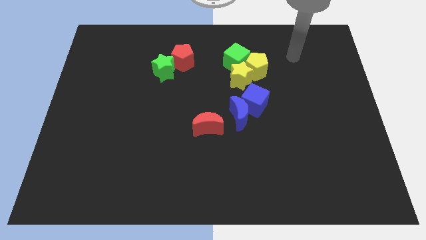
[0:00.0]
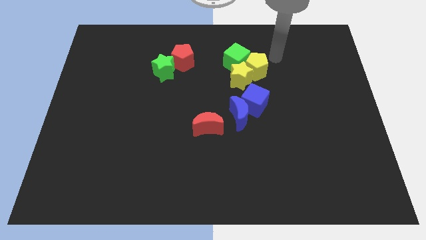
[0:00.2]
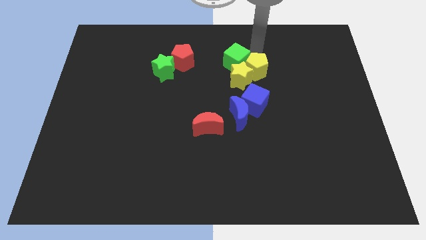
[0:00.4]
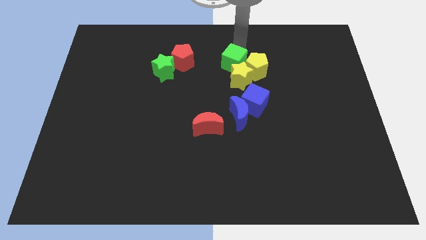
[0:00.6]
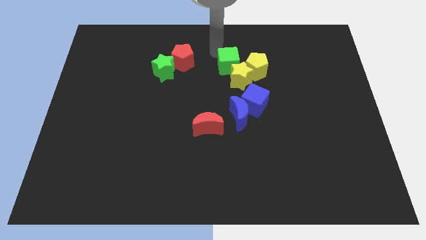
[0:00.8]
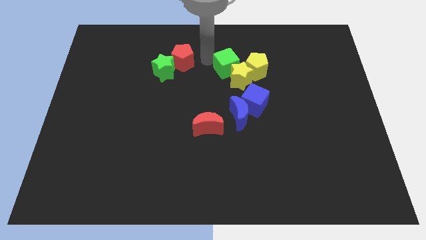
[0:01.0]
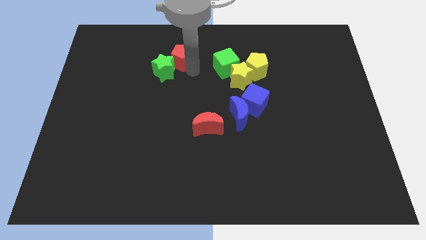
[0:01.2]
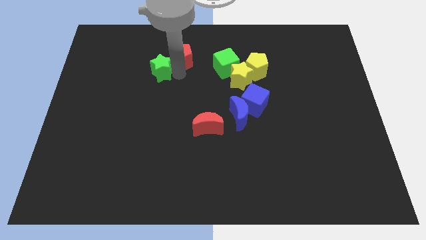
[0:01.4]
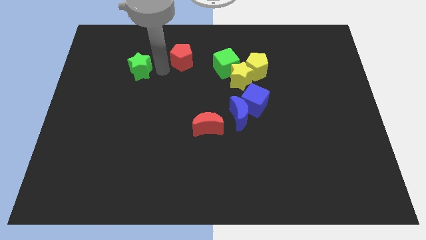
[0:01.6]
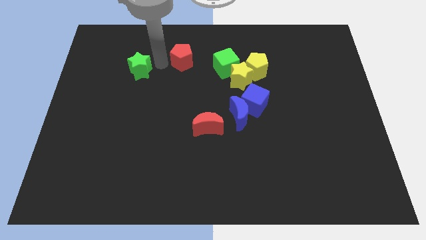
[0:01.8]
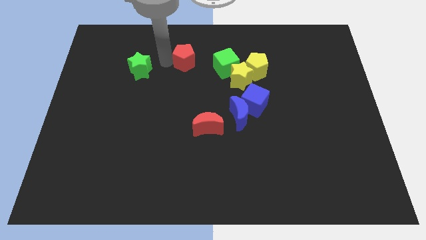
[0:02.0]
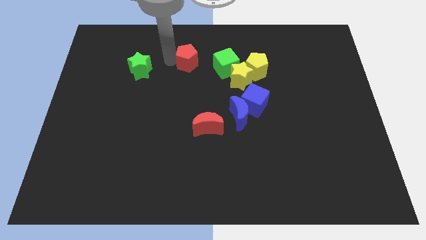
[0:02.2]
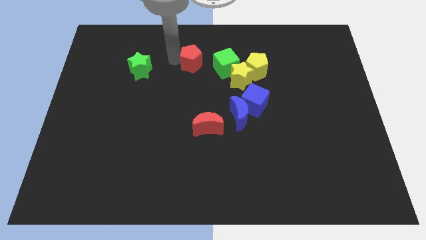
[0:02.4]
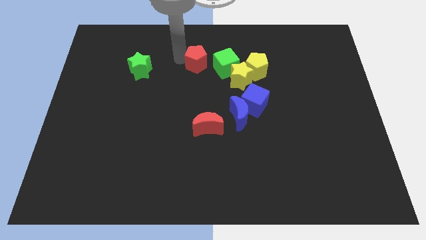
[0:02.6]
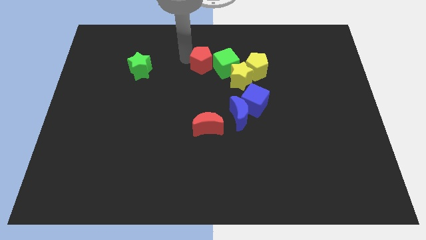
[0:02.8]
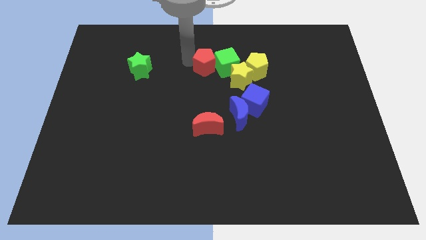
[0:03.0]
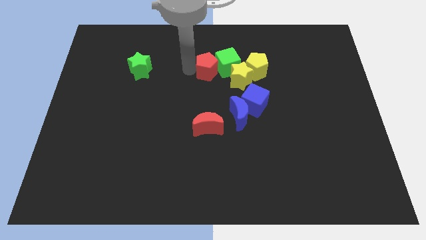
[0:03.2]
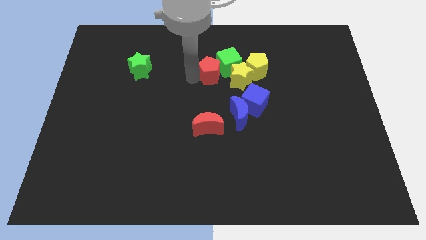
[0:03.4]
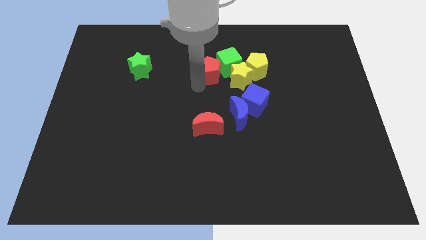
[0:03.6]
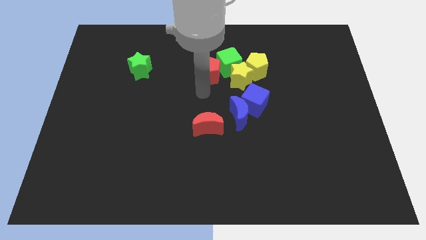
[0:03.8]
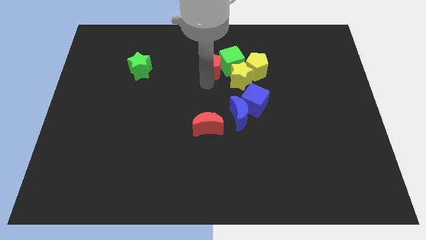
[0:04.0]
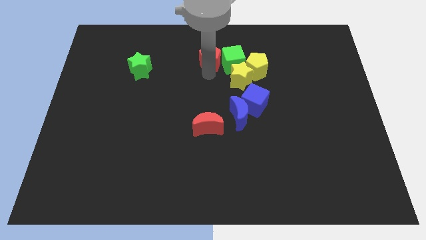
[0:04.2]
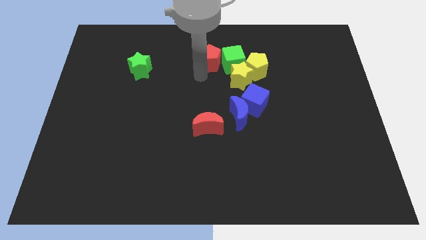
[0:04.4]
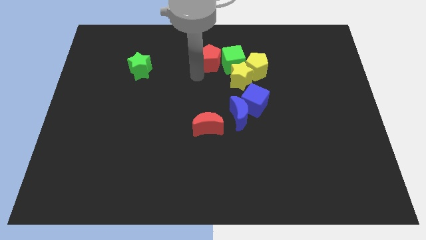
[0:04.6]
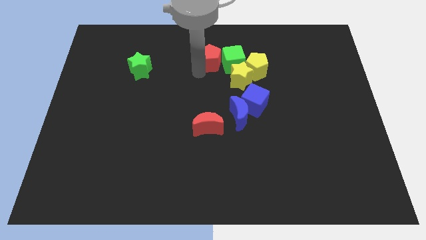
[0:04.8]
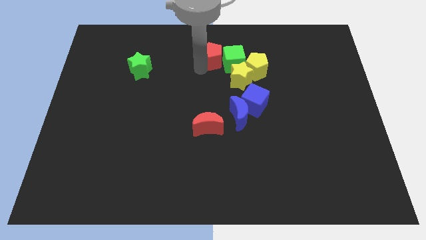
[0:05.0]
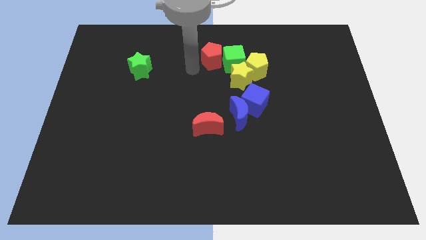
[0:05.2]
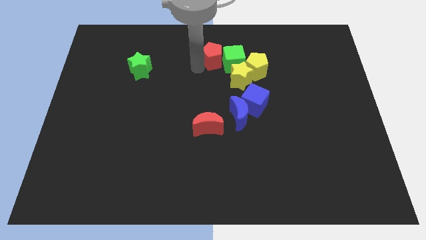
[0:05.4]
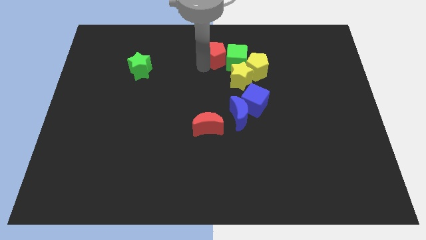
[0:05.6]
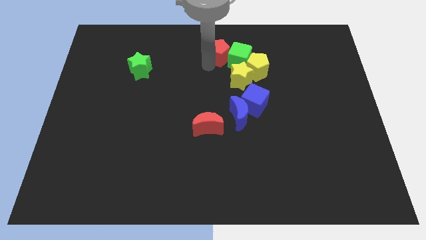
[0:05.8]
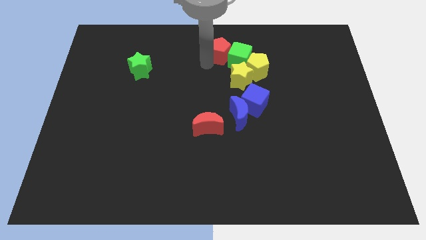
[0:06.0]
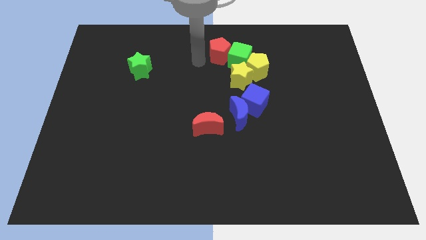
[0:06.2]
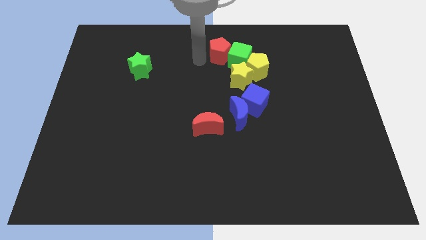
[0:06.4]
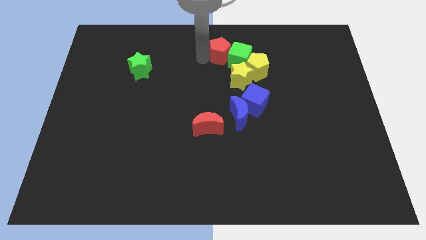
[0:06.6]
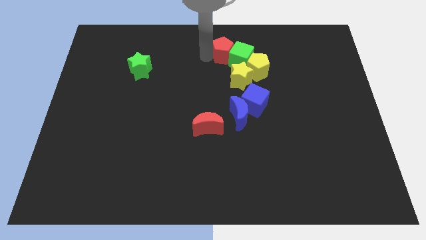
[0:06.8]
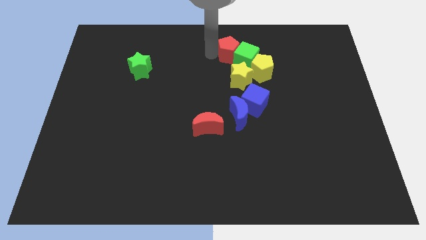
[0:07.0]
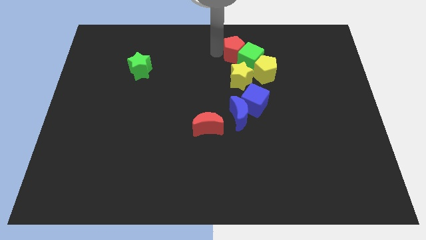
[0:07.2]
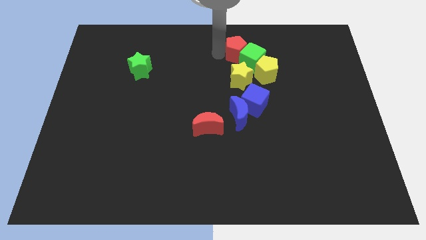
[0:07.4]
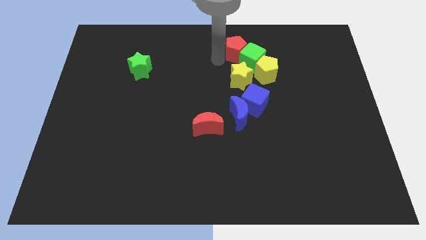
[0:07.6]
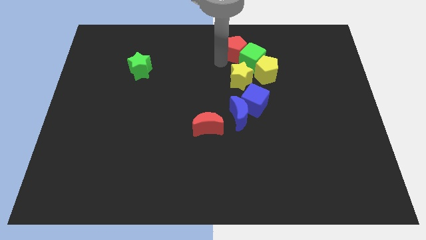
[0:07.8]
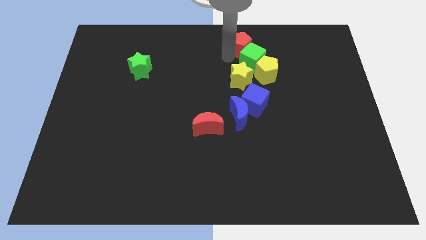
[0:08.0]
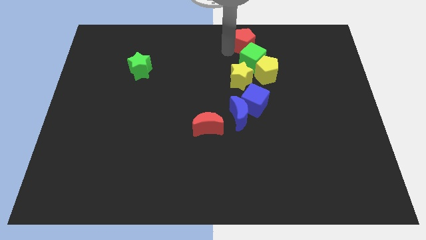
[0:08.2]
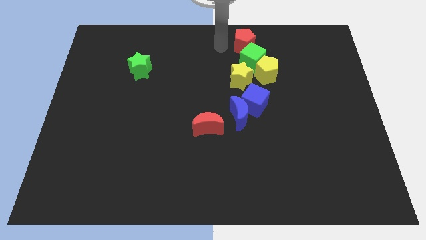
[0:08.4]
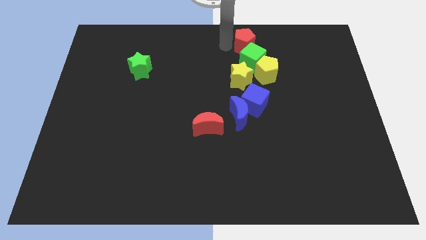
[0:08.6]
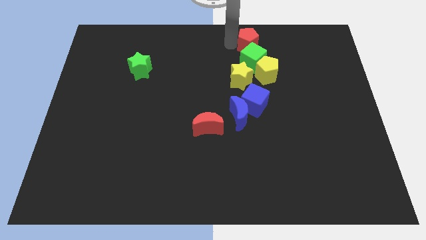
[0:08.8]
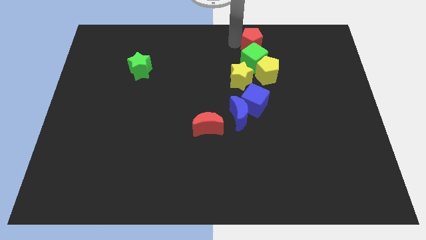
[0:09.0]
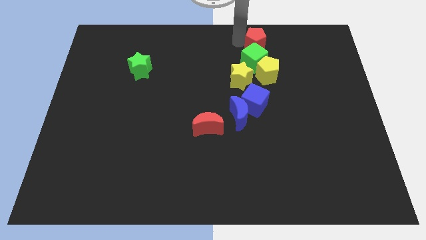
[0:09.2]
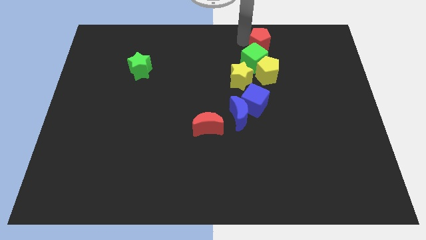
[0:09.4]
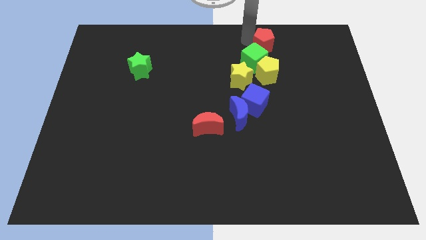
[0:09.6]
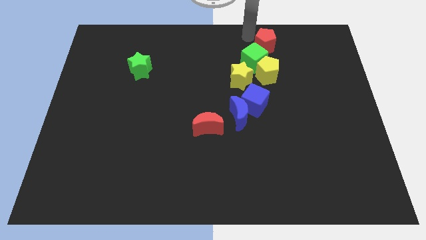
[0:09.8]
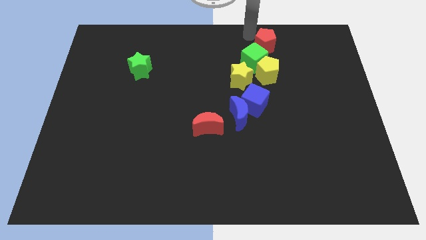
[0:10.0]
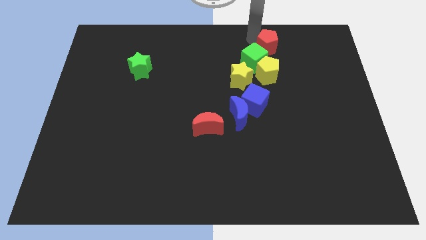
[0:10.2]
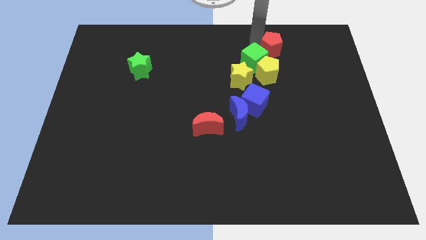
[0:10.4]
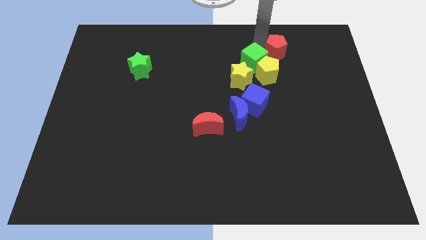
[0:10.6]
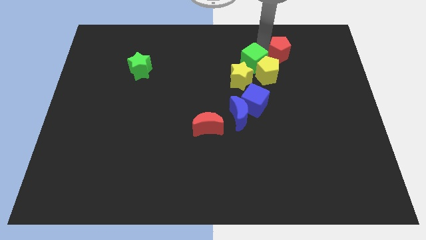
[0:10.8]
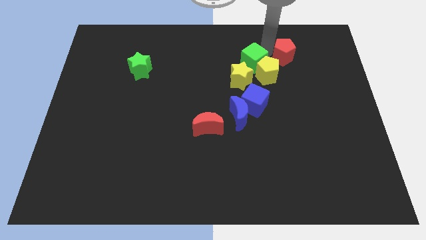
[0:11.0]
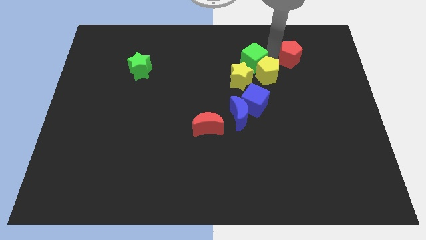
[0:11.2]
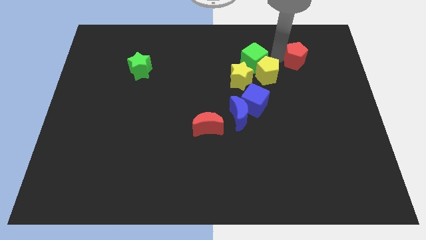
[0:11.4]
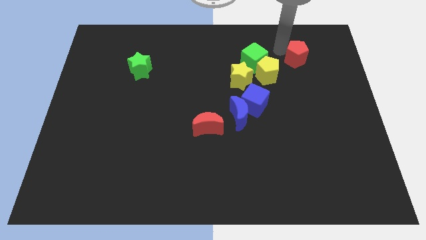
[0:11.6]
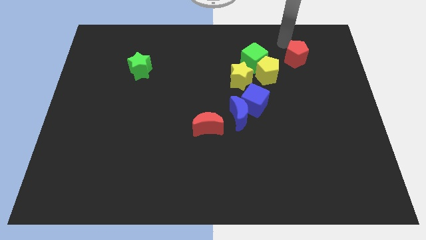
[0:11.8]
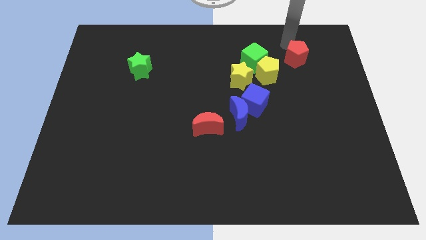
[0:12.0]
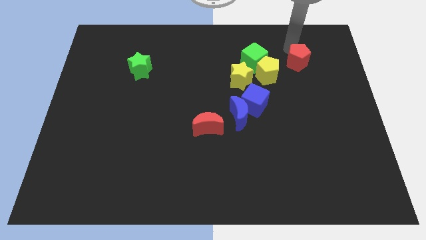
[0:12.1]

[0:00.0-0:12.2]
move the red pentagon right of the yellow pentagon
